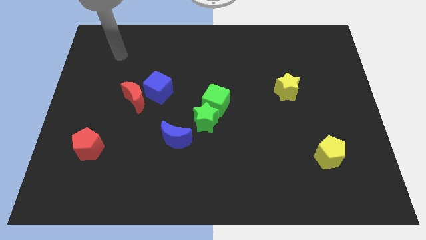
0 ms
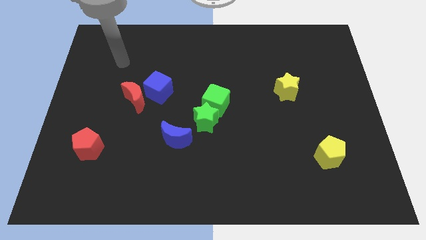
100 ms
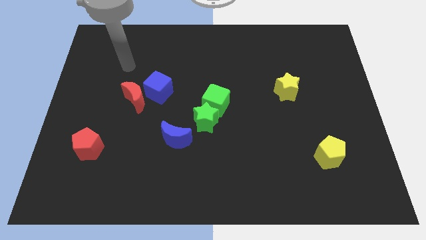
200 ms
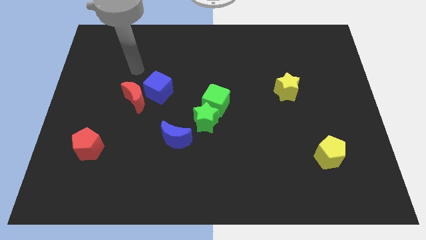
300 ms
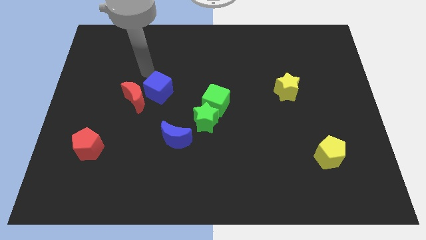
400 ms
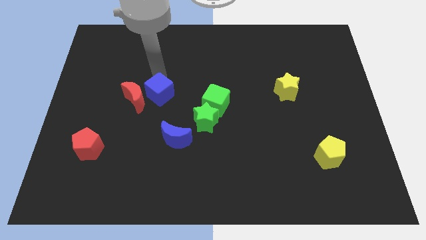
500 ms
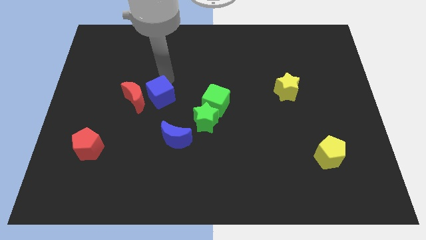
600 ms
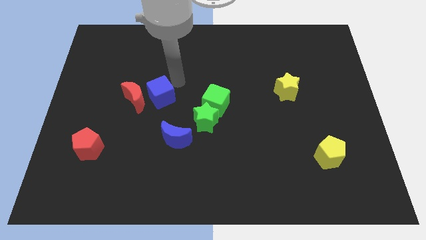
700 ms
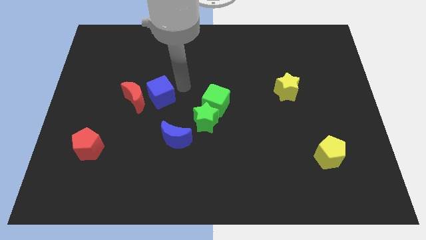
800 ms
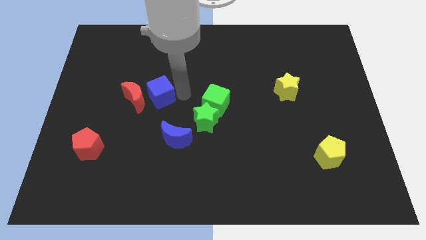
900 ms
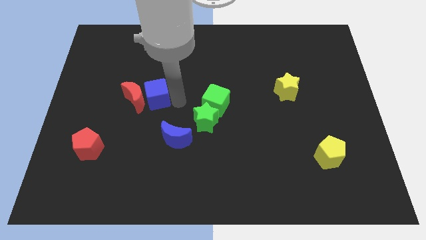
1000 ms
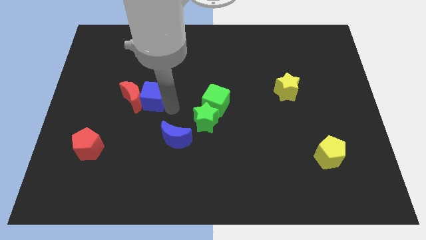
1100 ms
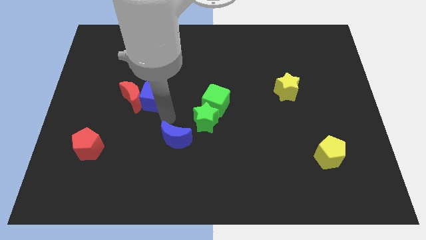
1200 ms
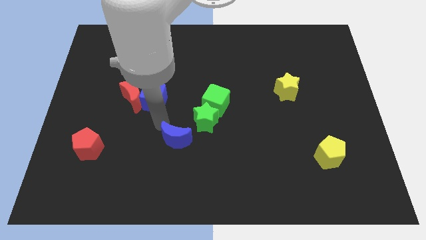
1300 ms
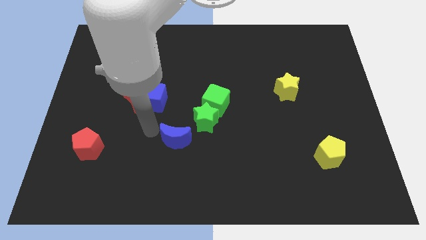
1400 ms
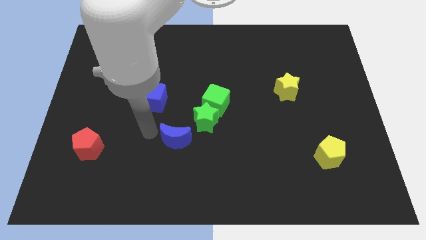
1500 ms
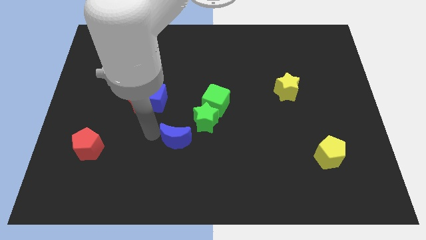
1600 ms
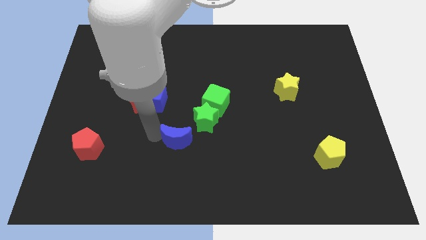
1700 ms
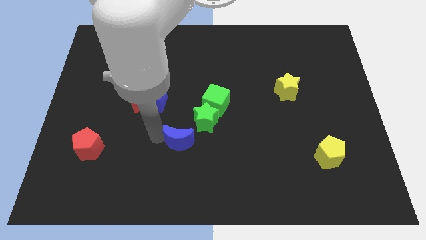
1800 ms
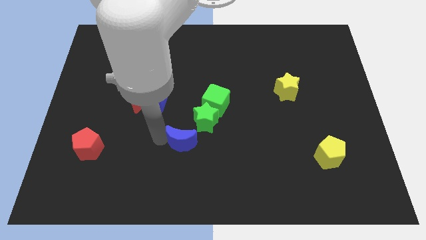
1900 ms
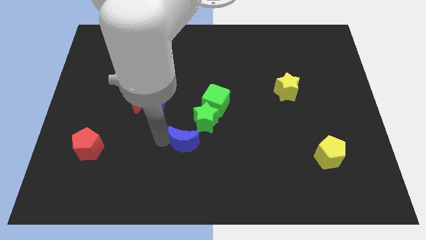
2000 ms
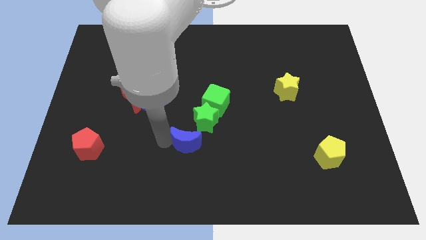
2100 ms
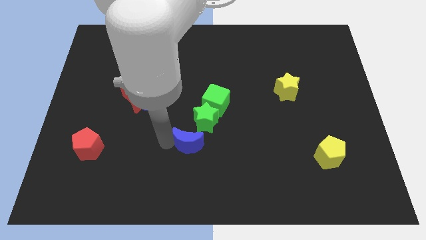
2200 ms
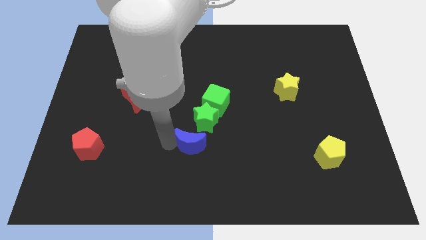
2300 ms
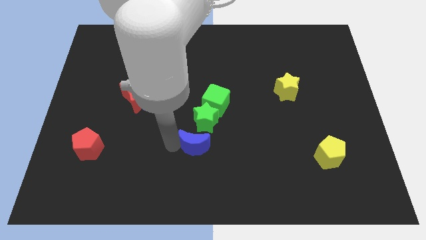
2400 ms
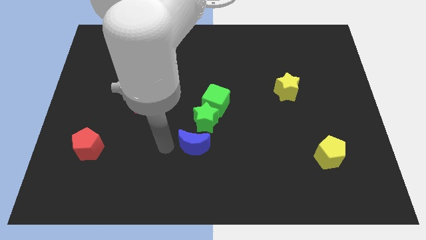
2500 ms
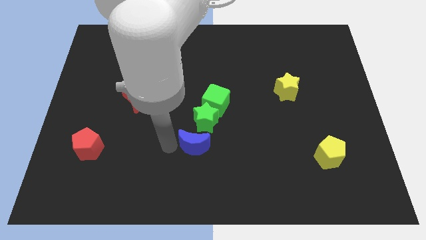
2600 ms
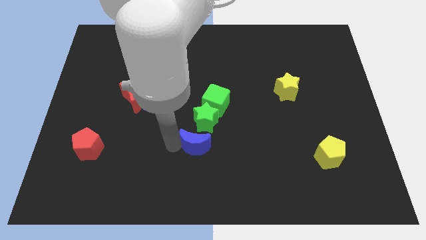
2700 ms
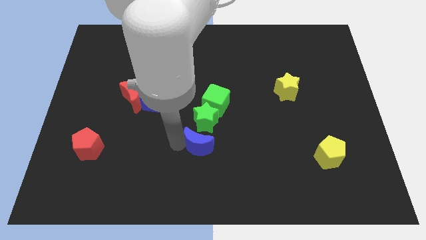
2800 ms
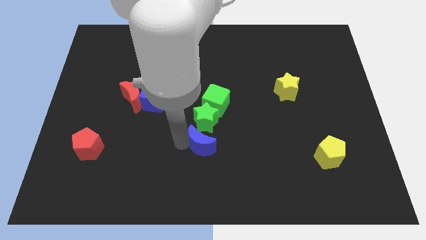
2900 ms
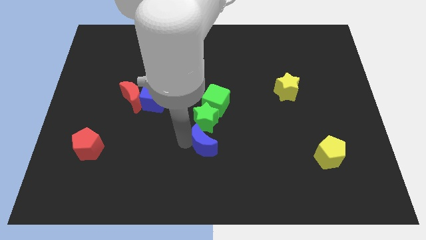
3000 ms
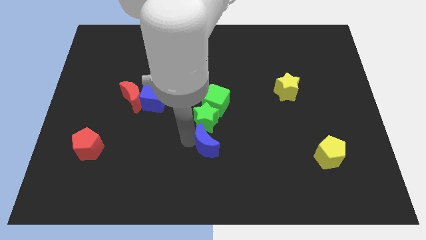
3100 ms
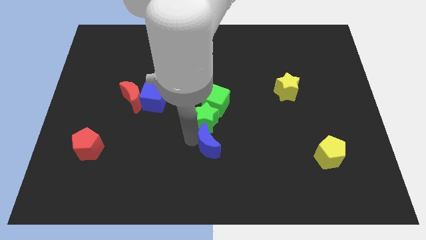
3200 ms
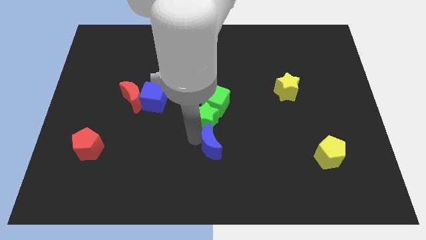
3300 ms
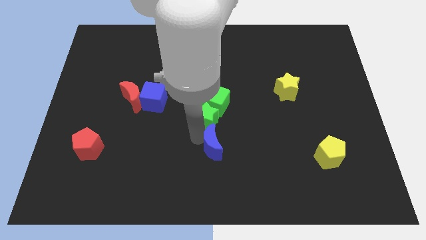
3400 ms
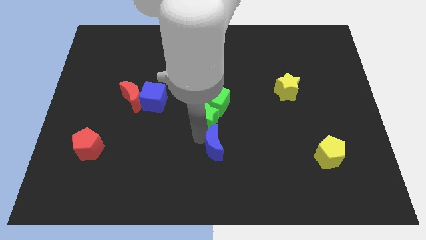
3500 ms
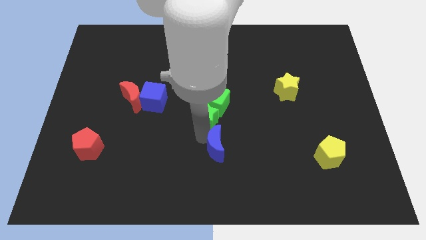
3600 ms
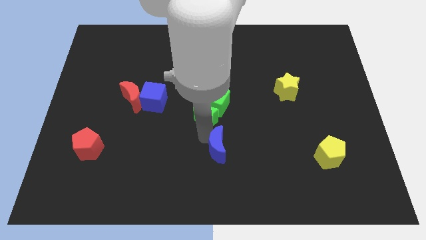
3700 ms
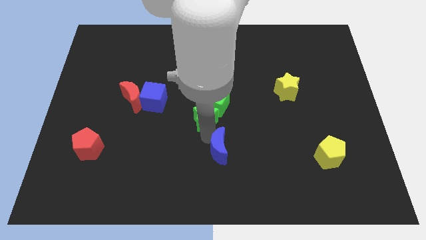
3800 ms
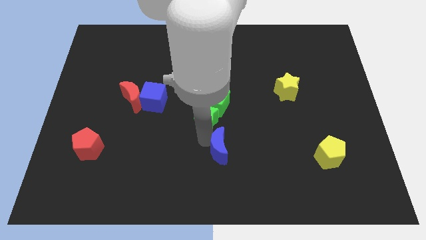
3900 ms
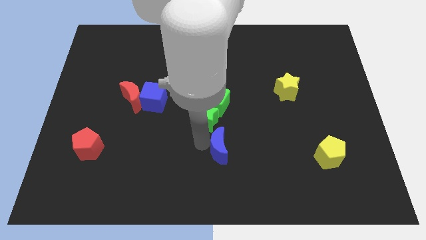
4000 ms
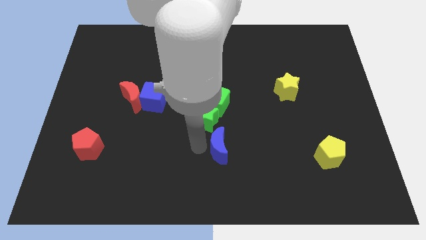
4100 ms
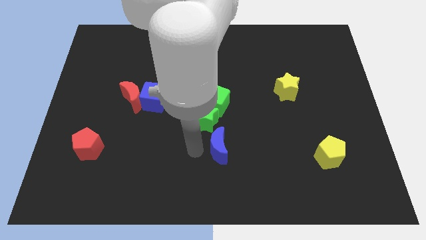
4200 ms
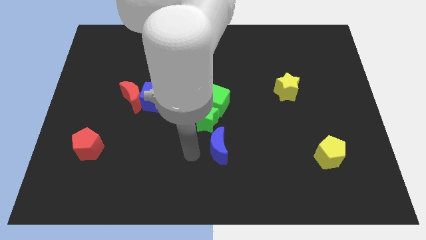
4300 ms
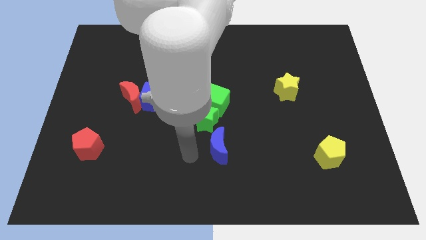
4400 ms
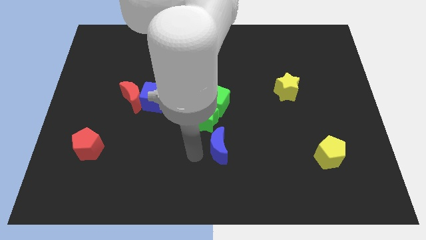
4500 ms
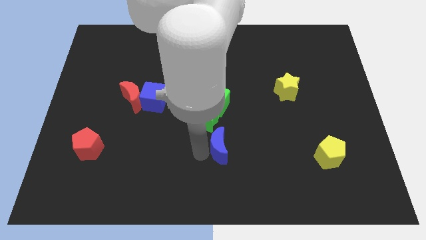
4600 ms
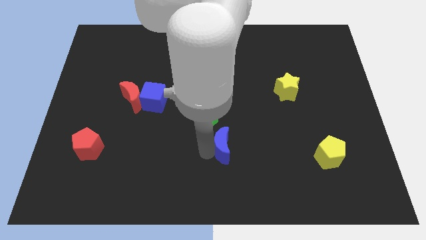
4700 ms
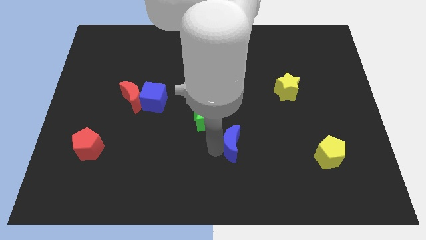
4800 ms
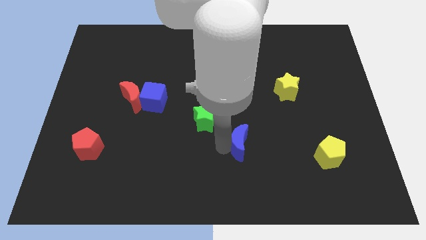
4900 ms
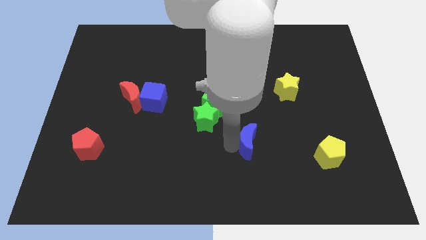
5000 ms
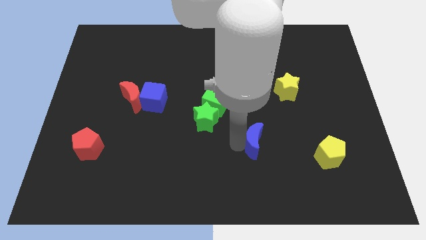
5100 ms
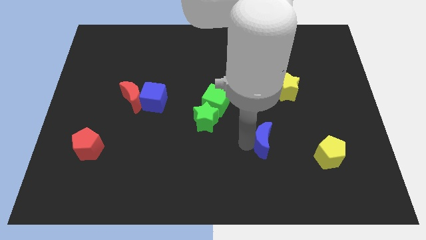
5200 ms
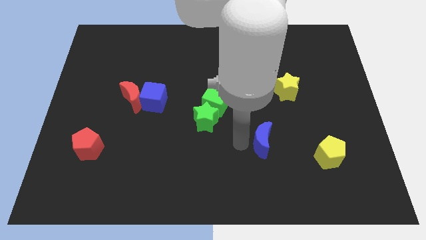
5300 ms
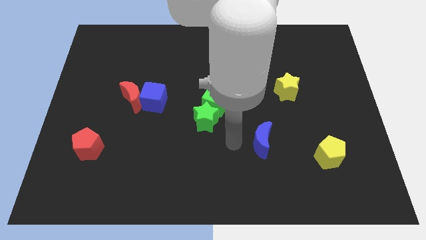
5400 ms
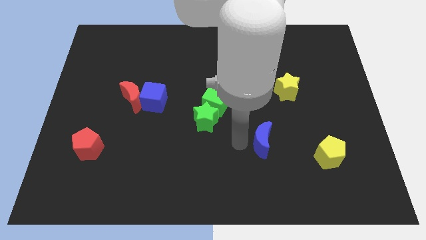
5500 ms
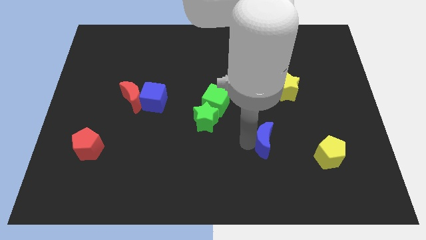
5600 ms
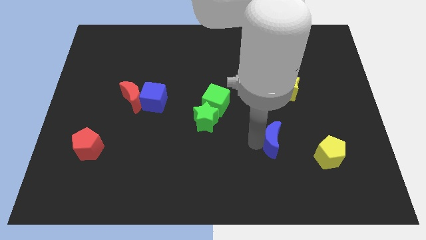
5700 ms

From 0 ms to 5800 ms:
slide the blue moon to the right

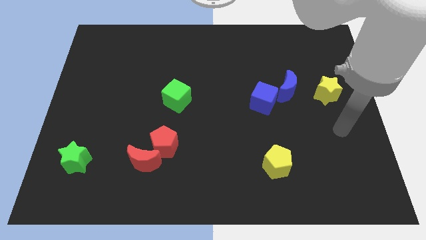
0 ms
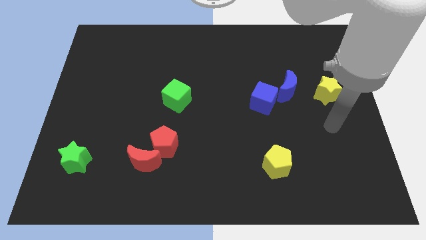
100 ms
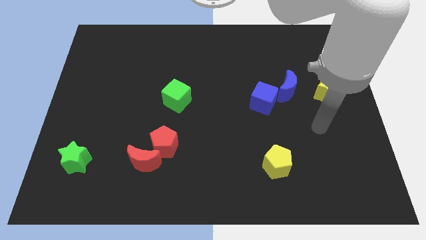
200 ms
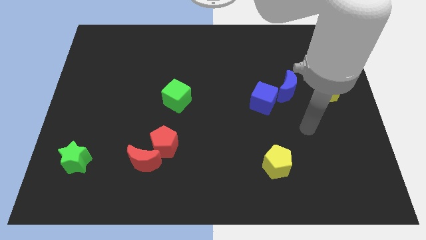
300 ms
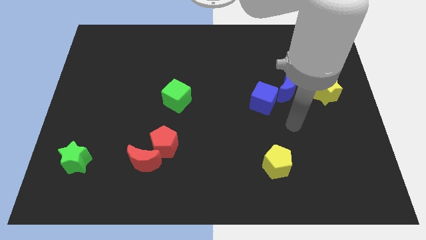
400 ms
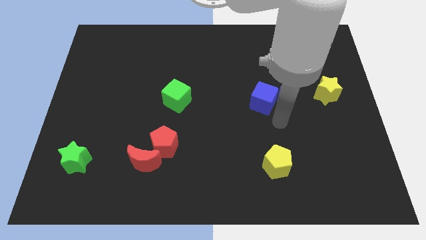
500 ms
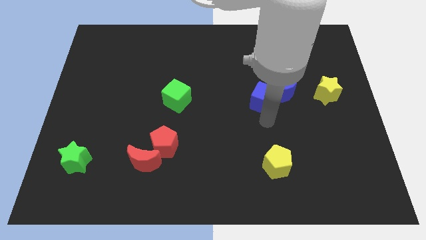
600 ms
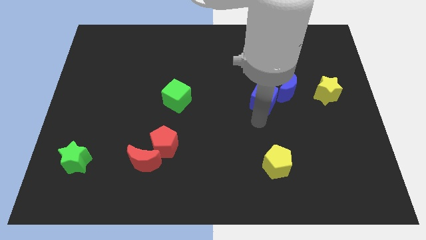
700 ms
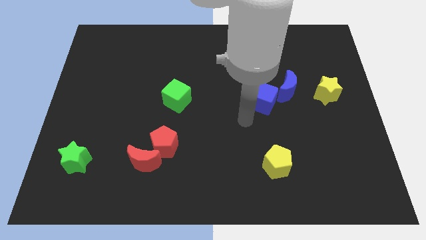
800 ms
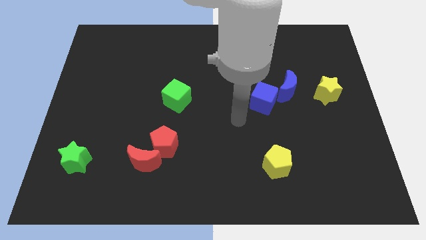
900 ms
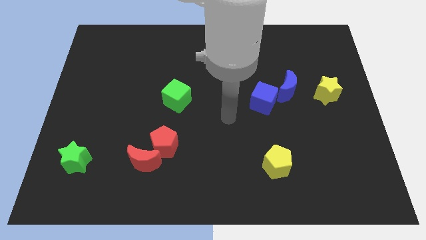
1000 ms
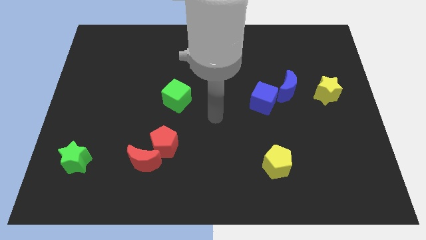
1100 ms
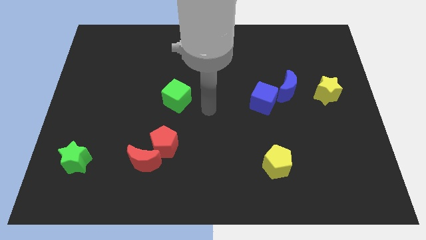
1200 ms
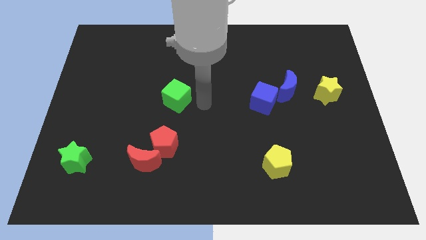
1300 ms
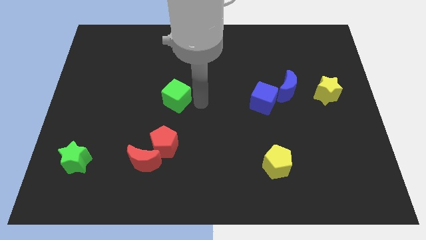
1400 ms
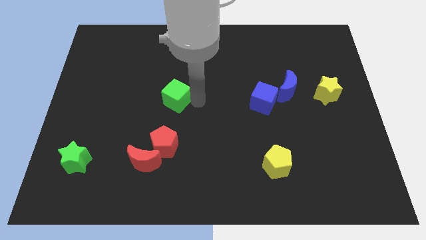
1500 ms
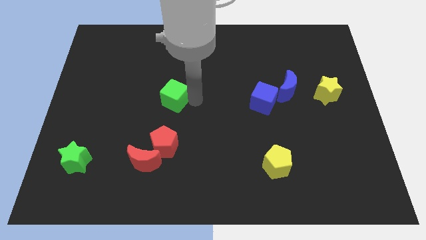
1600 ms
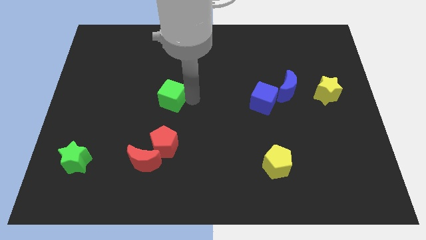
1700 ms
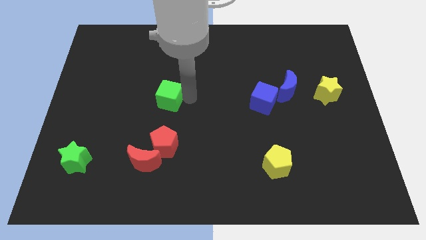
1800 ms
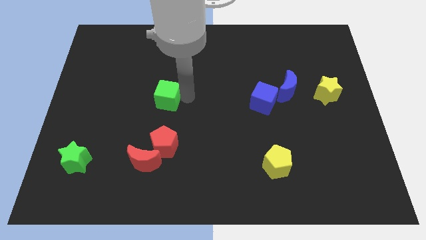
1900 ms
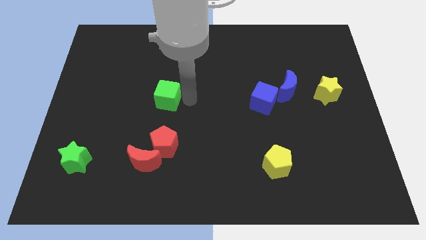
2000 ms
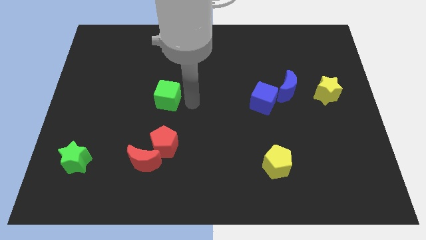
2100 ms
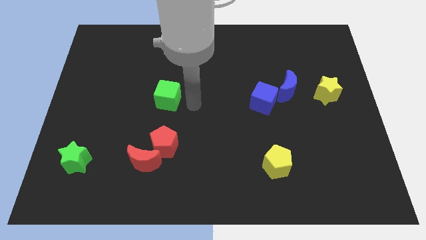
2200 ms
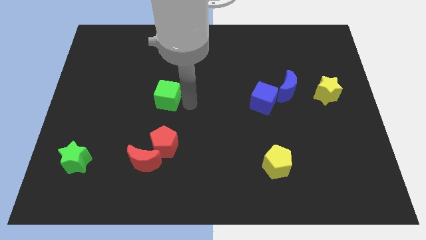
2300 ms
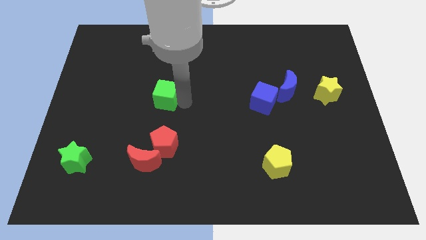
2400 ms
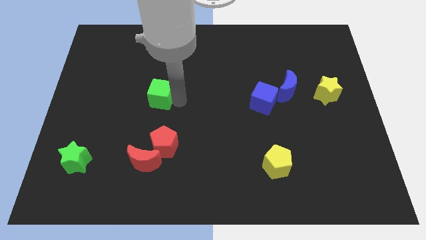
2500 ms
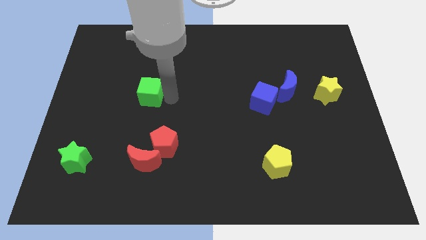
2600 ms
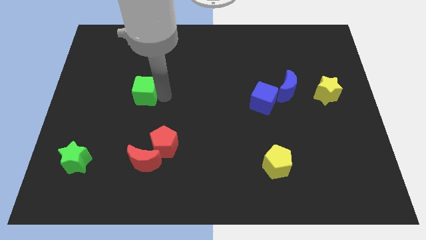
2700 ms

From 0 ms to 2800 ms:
slightly move the green cube to the left
